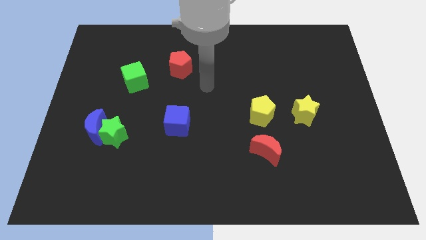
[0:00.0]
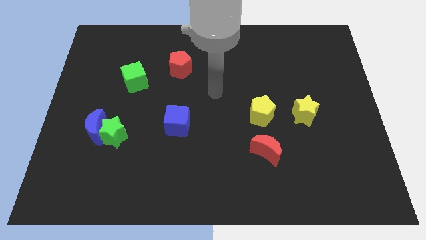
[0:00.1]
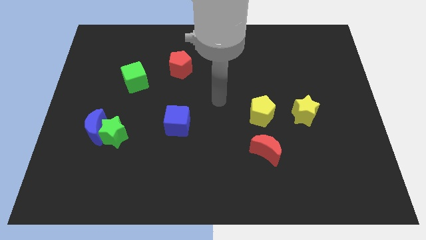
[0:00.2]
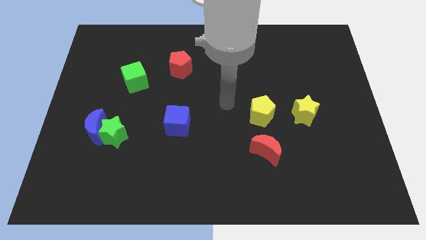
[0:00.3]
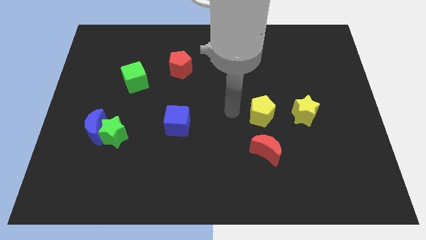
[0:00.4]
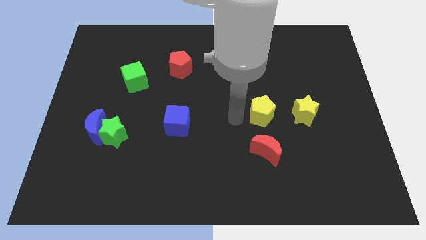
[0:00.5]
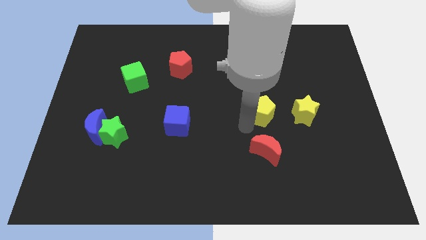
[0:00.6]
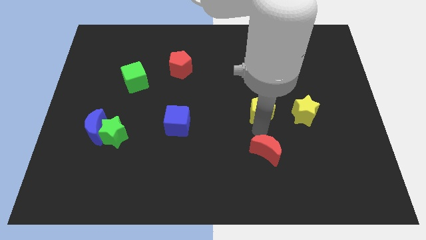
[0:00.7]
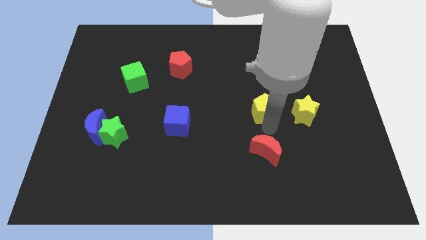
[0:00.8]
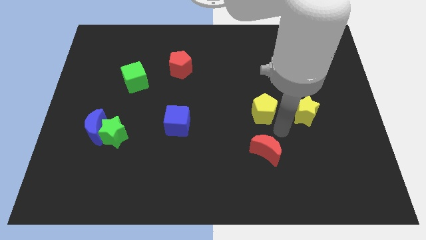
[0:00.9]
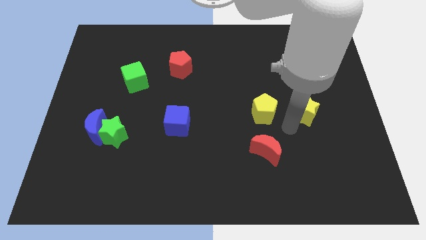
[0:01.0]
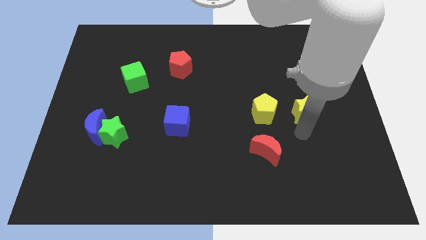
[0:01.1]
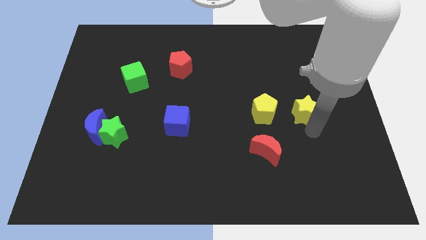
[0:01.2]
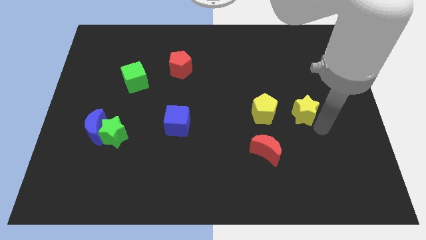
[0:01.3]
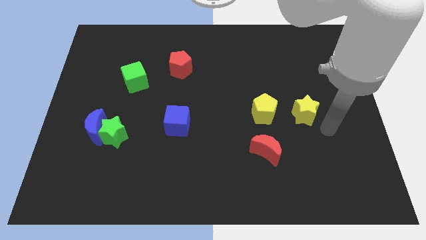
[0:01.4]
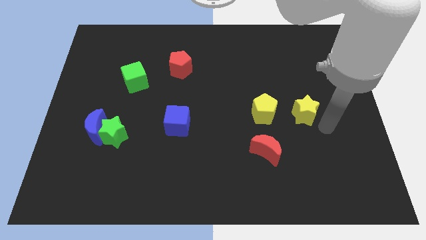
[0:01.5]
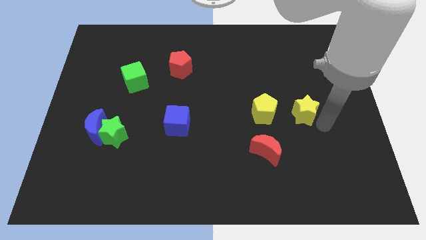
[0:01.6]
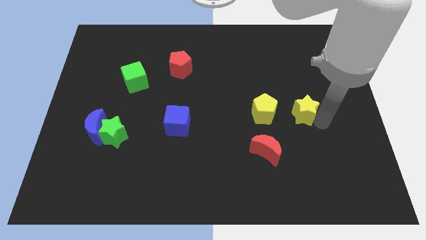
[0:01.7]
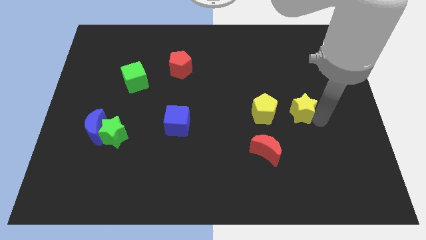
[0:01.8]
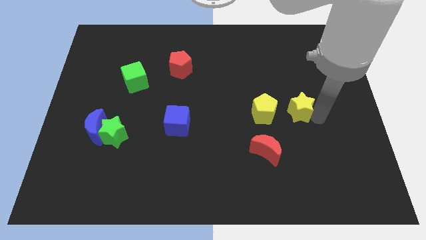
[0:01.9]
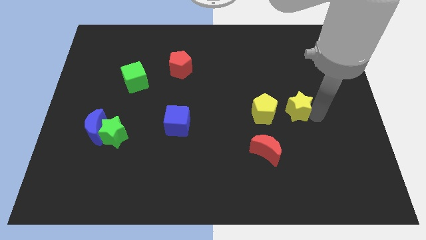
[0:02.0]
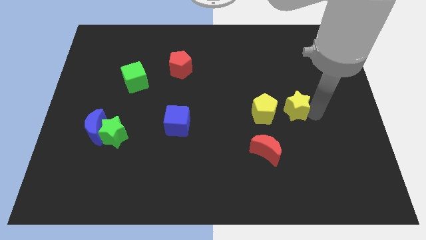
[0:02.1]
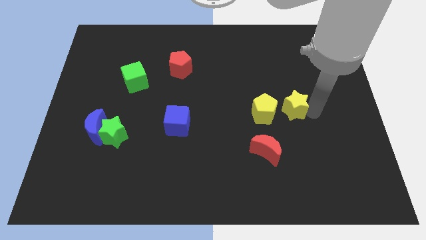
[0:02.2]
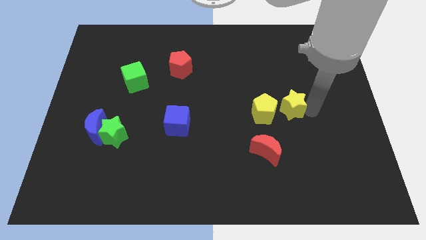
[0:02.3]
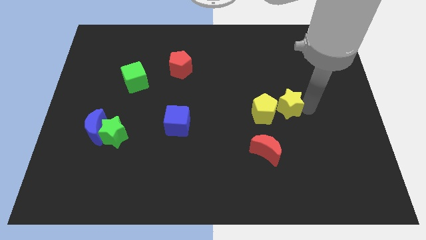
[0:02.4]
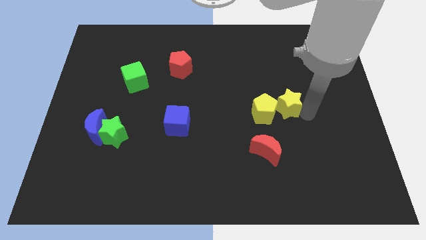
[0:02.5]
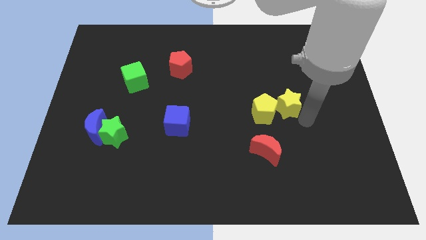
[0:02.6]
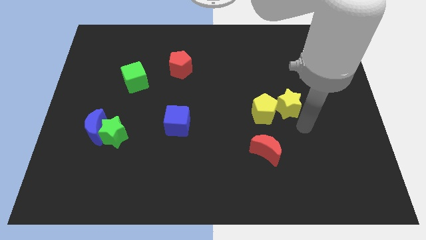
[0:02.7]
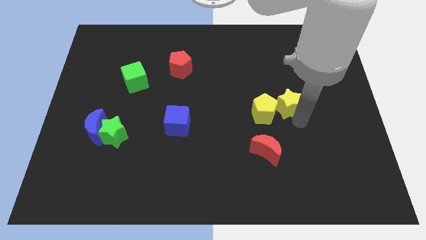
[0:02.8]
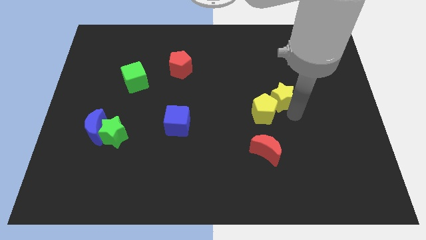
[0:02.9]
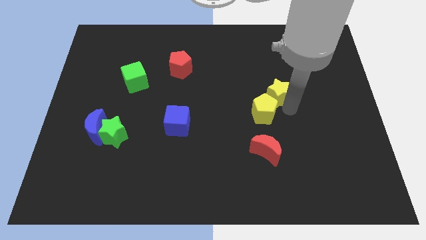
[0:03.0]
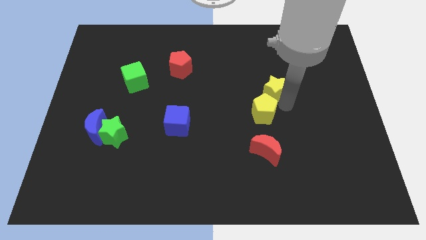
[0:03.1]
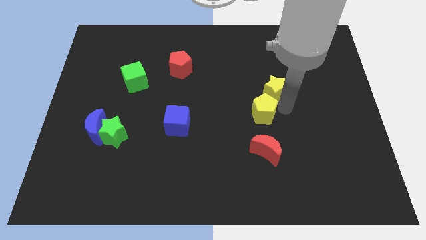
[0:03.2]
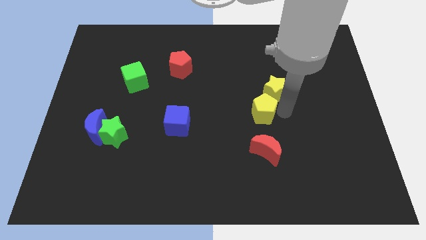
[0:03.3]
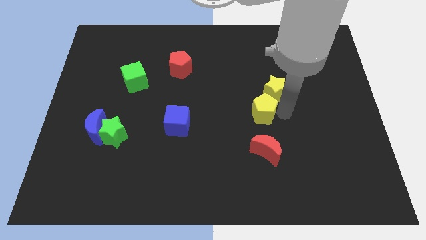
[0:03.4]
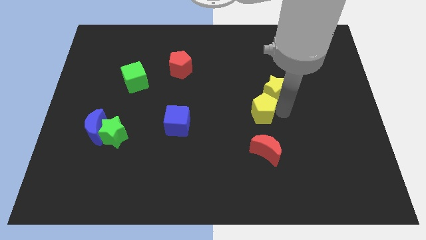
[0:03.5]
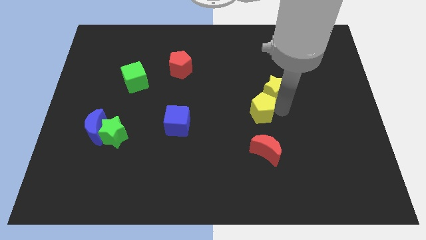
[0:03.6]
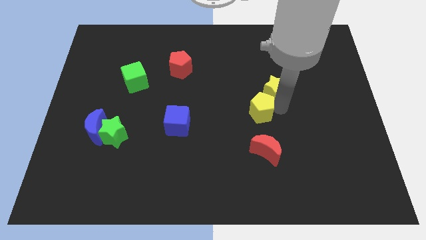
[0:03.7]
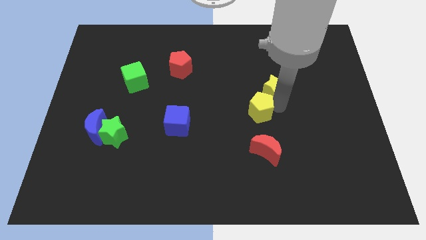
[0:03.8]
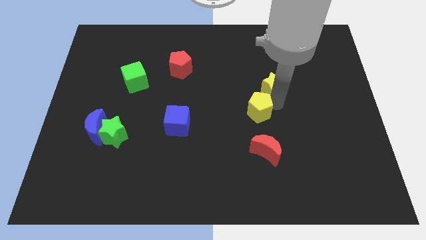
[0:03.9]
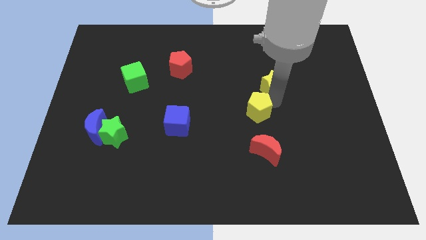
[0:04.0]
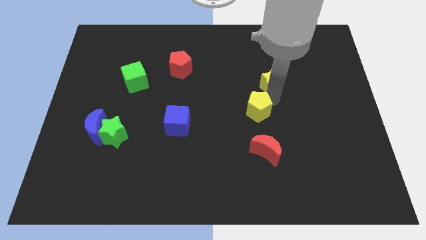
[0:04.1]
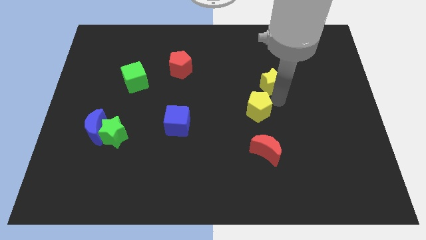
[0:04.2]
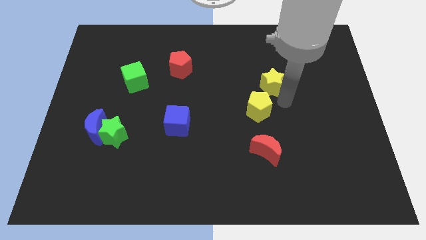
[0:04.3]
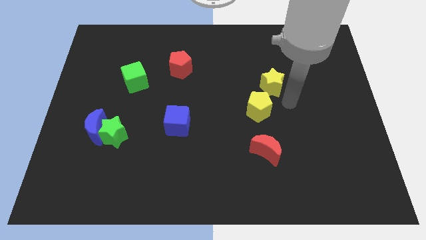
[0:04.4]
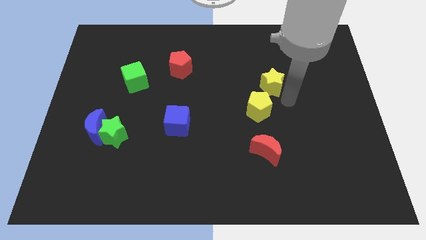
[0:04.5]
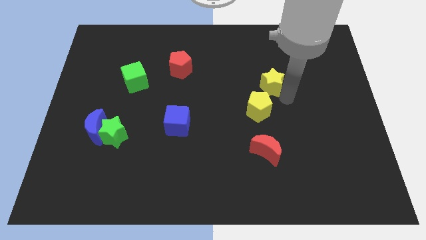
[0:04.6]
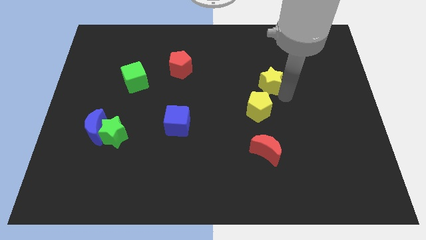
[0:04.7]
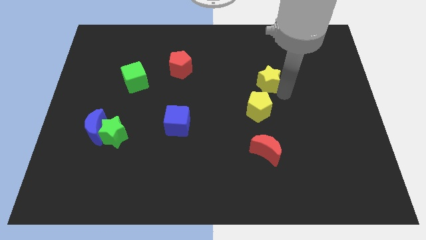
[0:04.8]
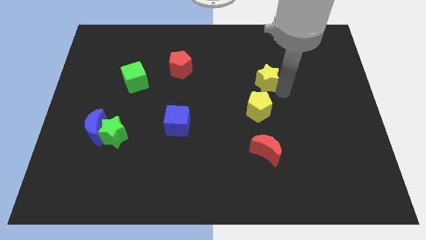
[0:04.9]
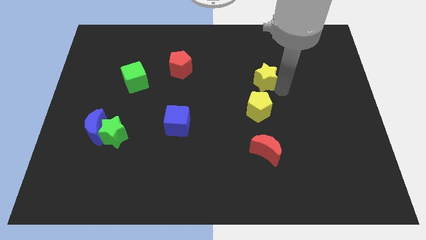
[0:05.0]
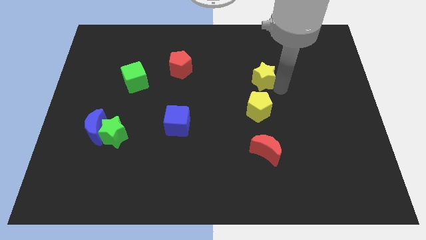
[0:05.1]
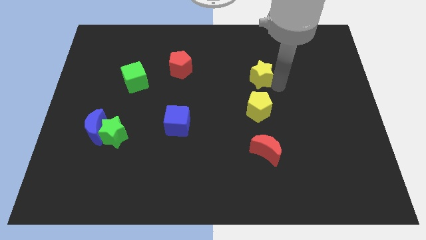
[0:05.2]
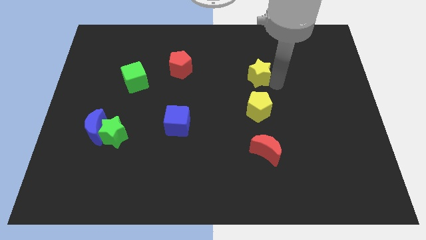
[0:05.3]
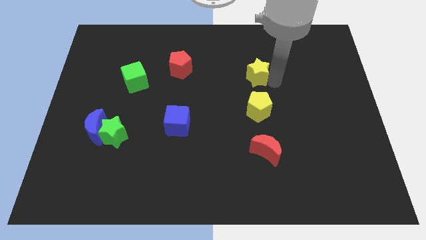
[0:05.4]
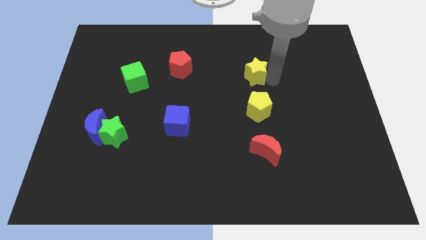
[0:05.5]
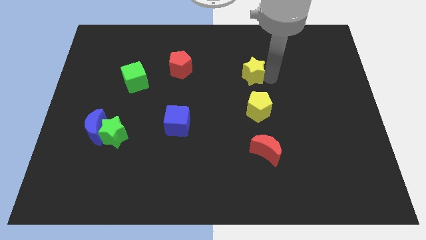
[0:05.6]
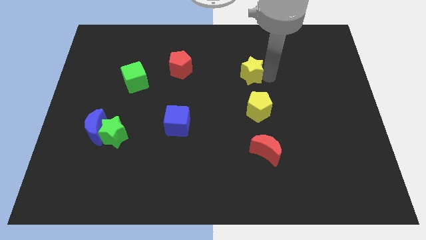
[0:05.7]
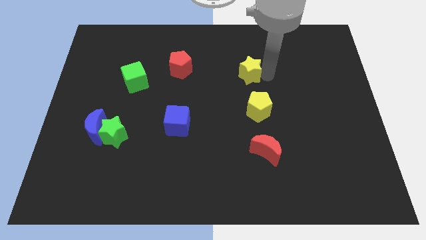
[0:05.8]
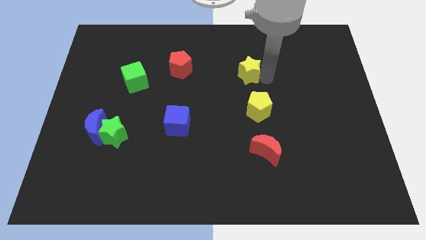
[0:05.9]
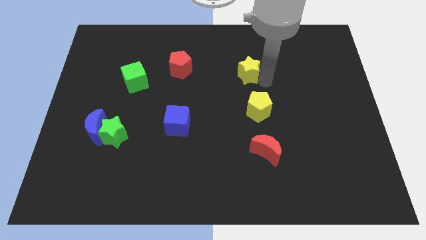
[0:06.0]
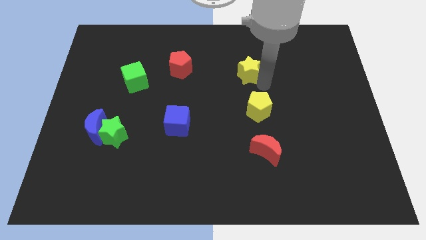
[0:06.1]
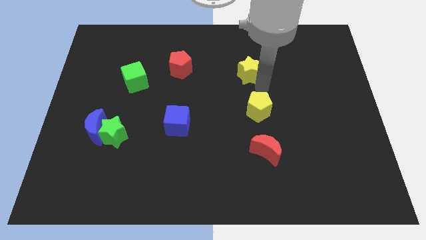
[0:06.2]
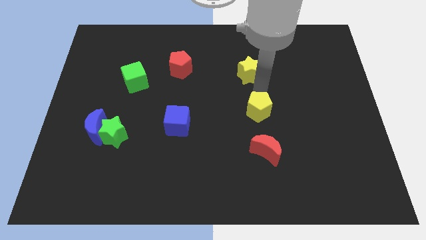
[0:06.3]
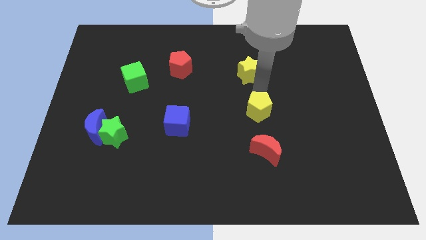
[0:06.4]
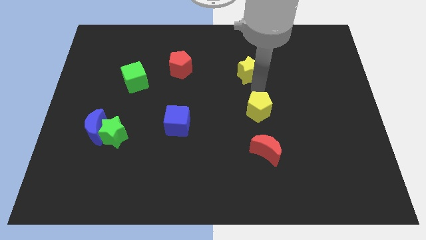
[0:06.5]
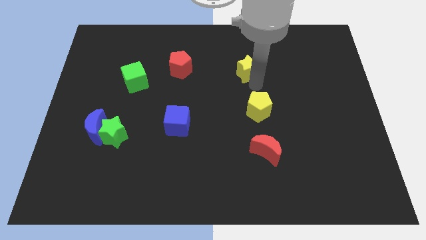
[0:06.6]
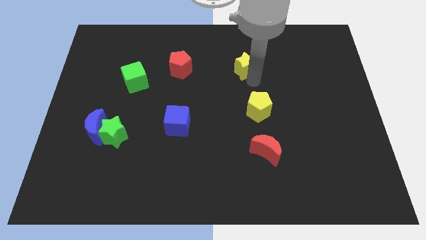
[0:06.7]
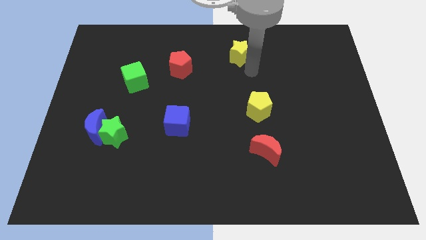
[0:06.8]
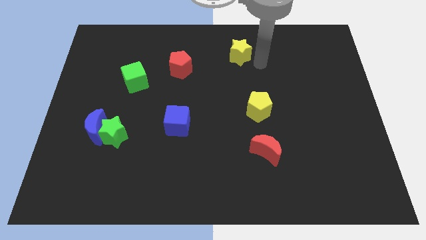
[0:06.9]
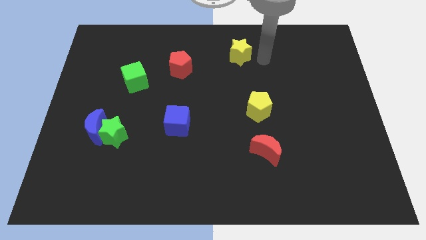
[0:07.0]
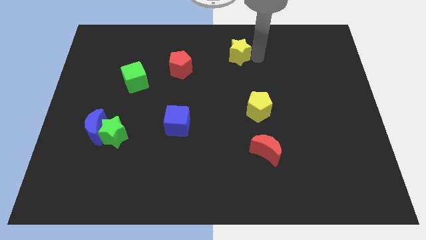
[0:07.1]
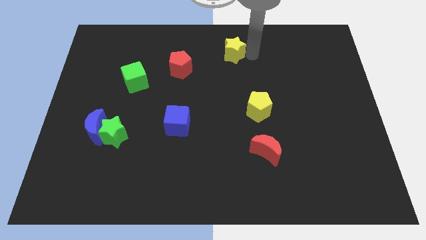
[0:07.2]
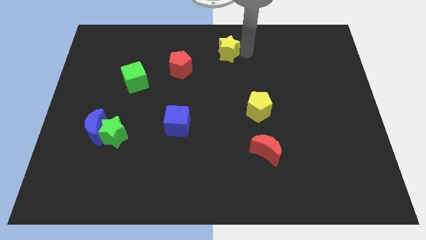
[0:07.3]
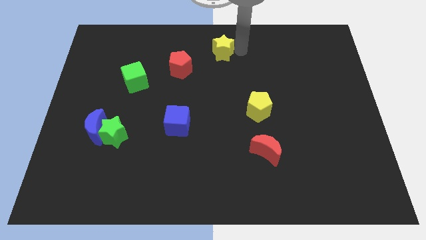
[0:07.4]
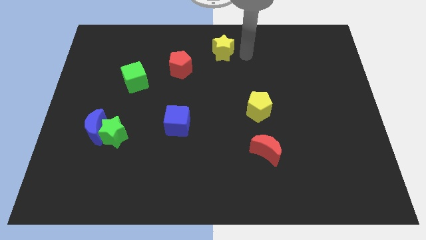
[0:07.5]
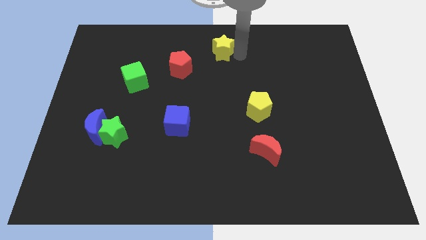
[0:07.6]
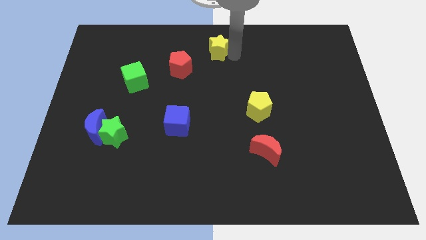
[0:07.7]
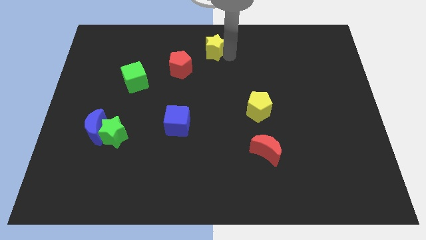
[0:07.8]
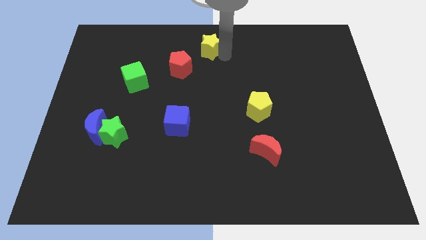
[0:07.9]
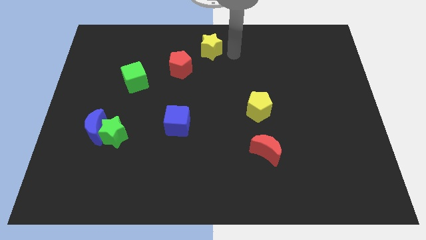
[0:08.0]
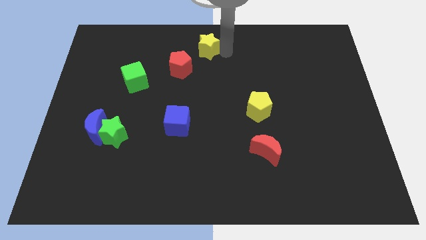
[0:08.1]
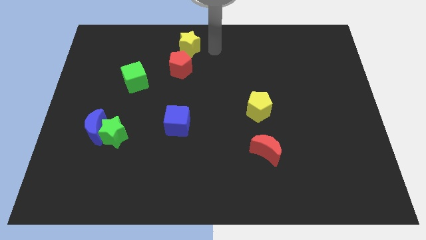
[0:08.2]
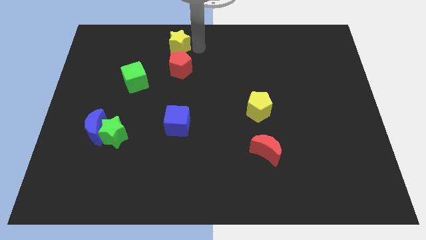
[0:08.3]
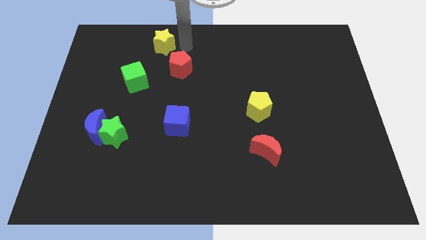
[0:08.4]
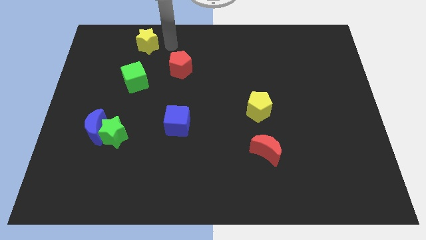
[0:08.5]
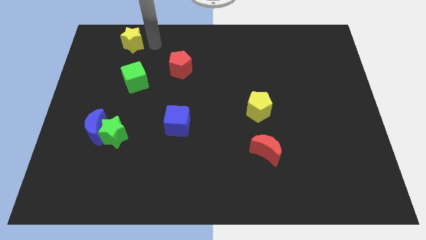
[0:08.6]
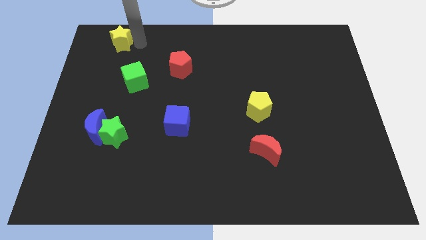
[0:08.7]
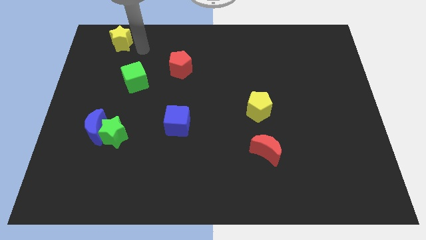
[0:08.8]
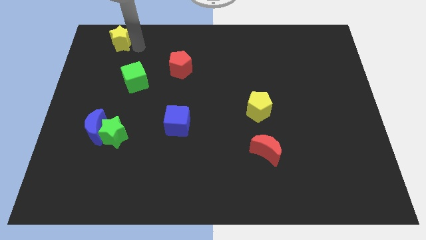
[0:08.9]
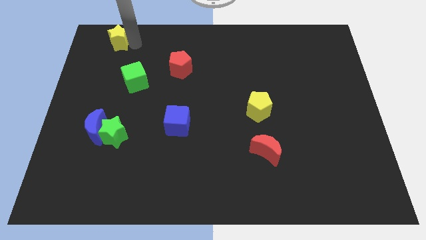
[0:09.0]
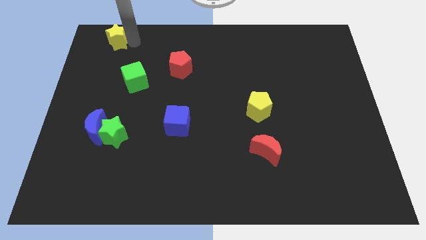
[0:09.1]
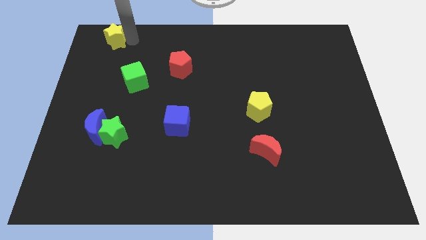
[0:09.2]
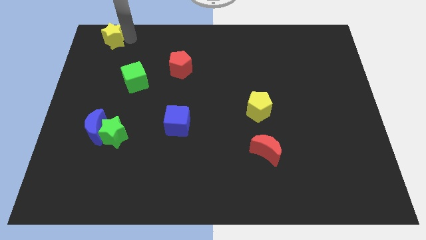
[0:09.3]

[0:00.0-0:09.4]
push the yellow star to the top left corner
